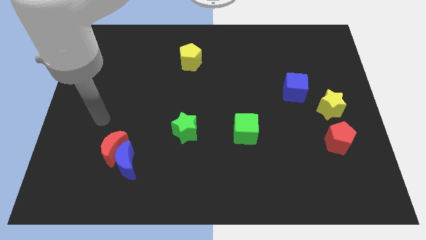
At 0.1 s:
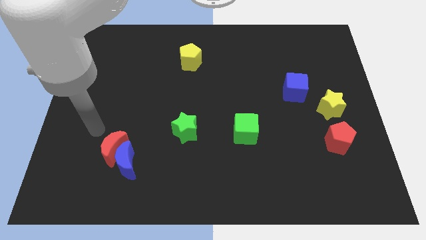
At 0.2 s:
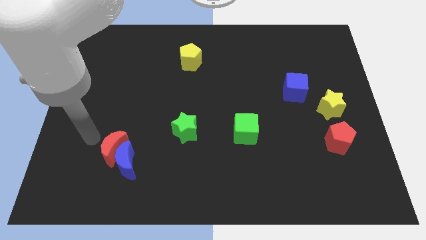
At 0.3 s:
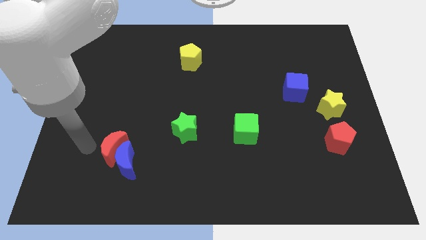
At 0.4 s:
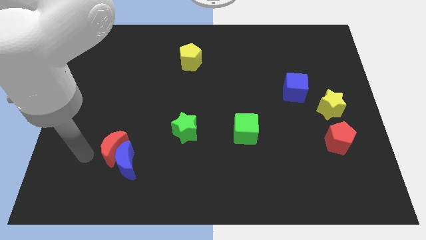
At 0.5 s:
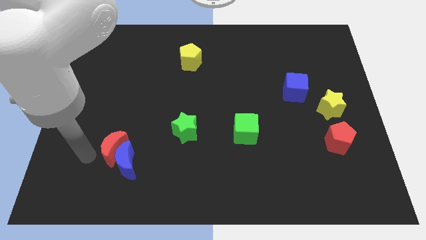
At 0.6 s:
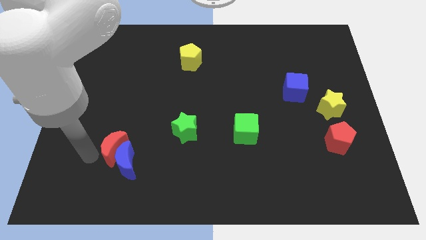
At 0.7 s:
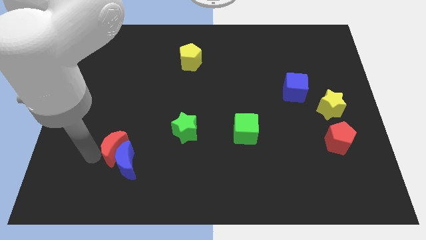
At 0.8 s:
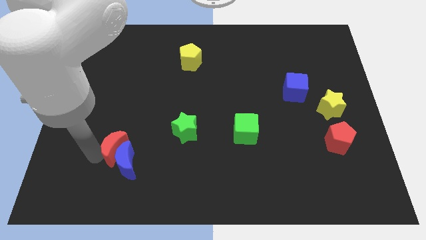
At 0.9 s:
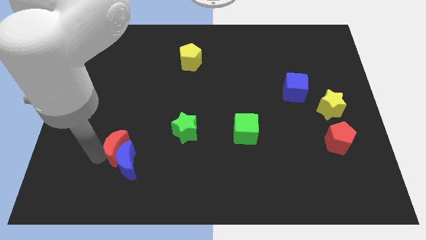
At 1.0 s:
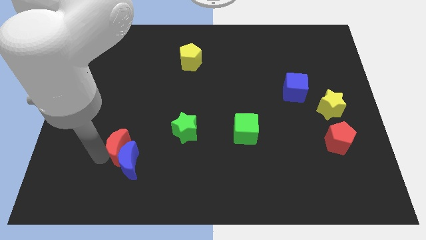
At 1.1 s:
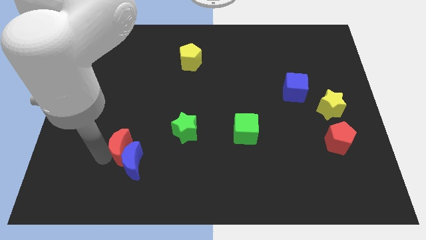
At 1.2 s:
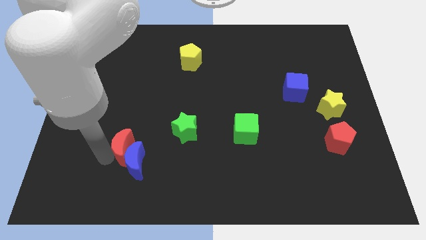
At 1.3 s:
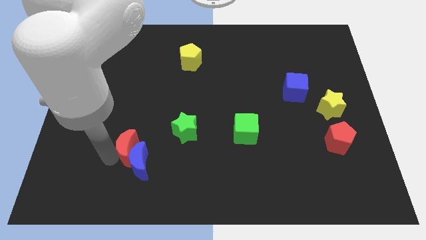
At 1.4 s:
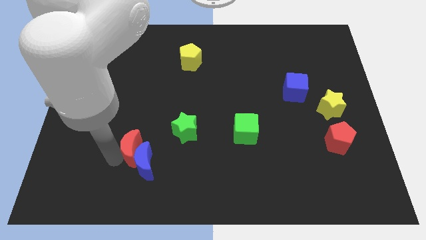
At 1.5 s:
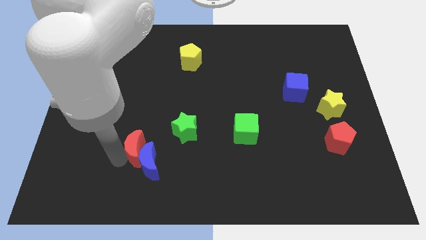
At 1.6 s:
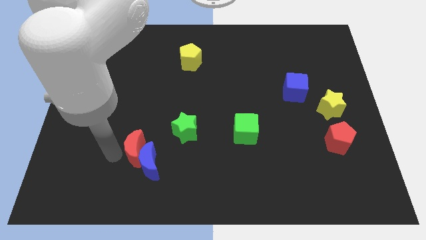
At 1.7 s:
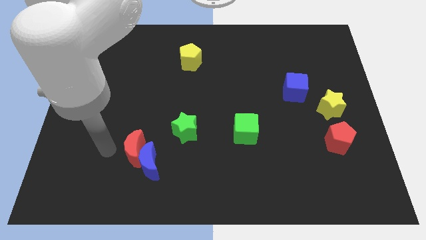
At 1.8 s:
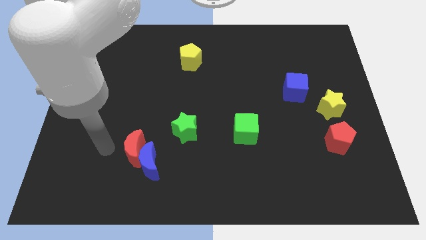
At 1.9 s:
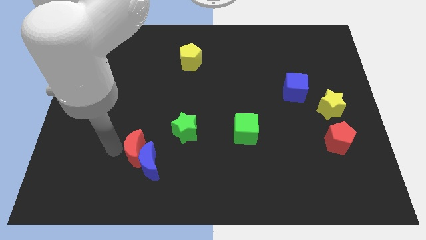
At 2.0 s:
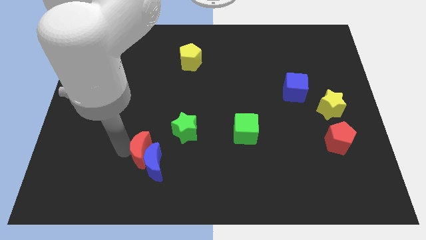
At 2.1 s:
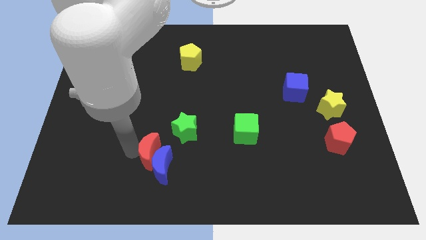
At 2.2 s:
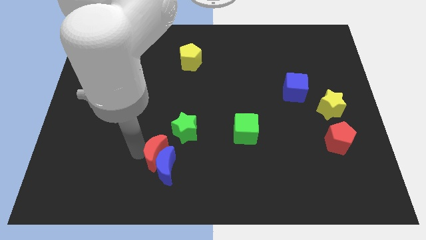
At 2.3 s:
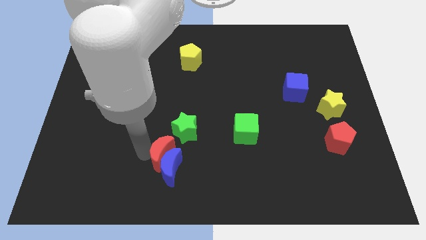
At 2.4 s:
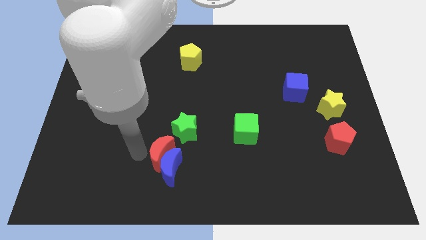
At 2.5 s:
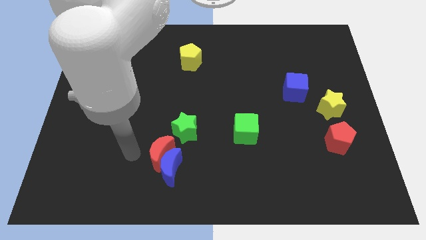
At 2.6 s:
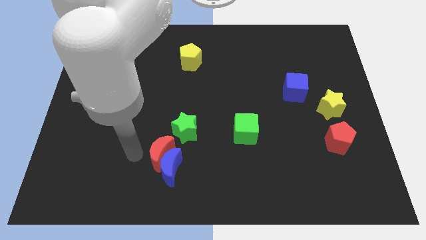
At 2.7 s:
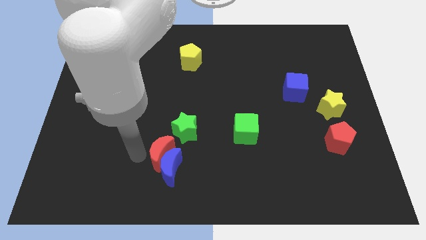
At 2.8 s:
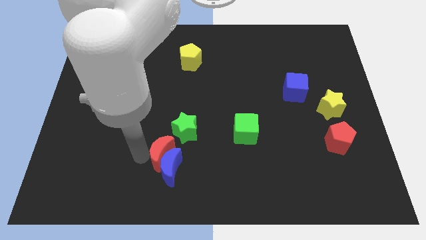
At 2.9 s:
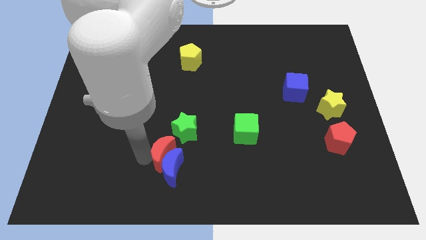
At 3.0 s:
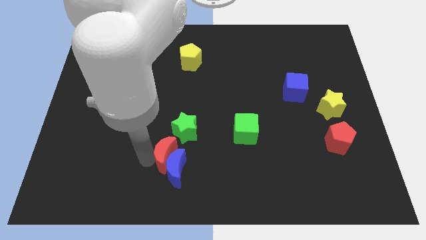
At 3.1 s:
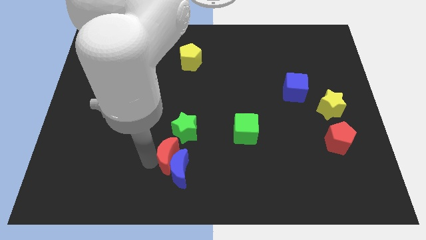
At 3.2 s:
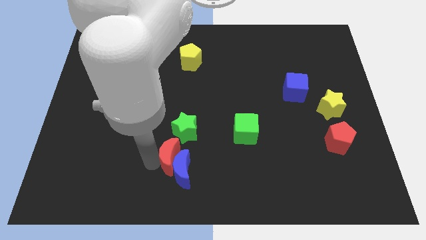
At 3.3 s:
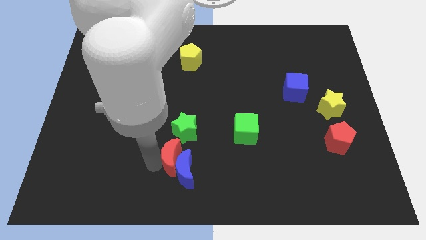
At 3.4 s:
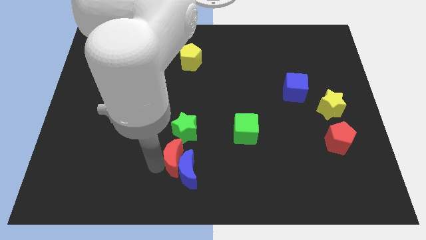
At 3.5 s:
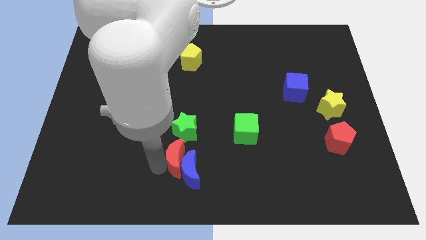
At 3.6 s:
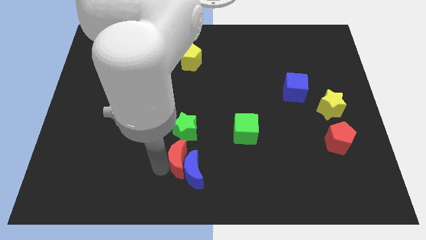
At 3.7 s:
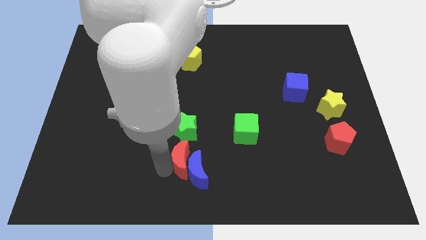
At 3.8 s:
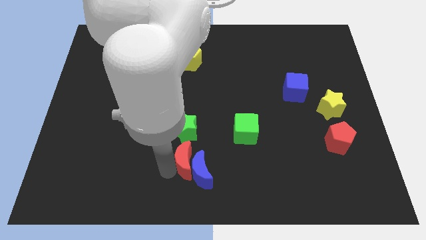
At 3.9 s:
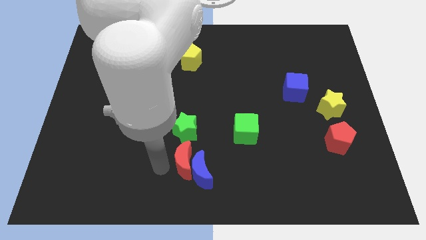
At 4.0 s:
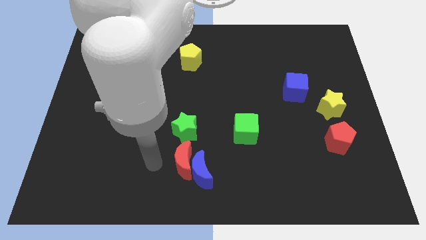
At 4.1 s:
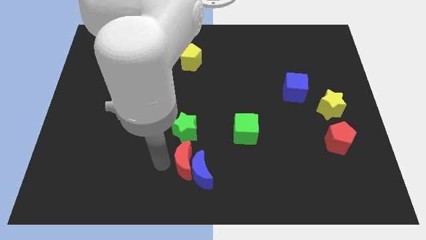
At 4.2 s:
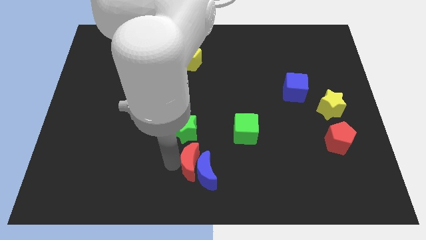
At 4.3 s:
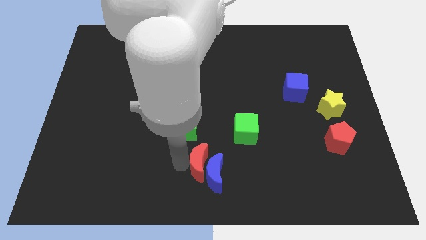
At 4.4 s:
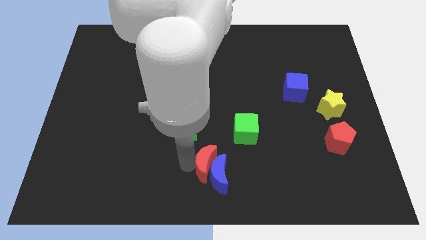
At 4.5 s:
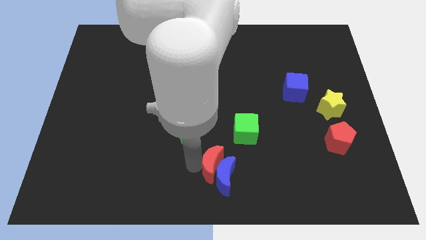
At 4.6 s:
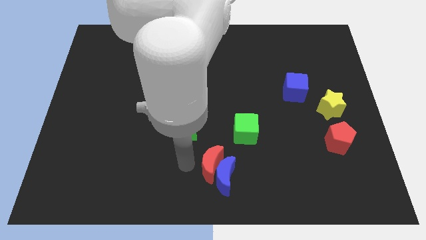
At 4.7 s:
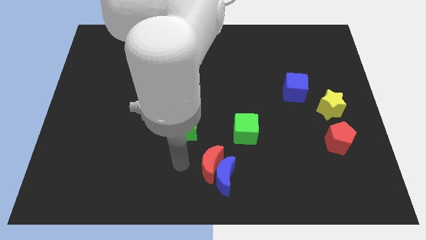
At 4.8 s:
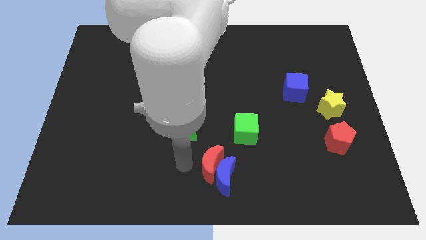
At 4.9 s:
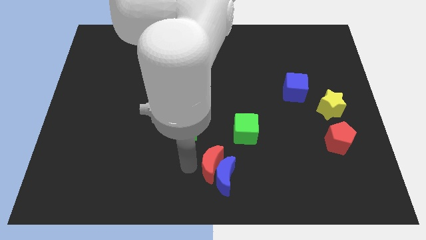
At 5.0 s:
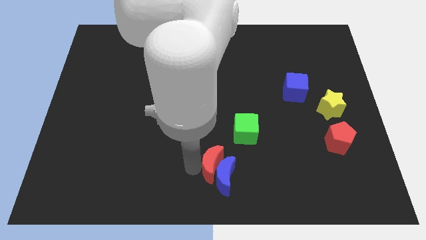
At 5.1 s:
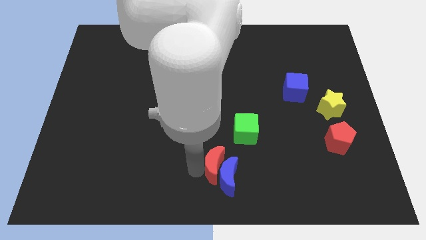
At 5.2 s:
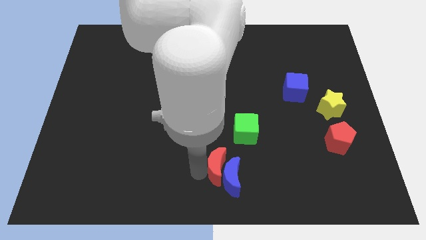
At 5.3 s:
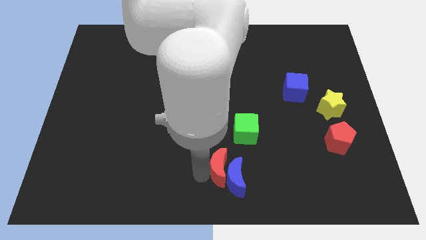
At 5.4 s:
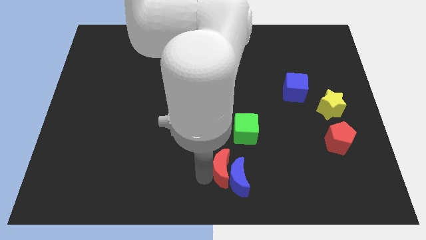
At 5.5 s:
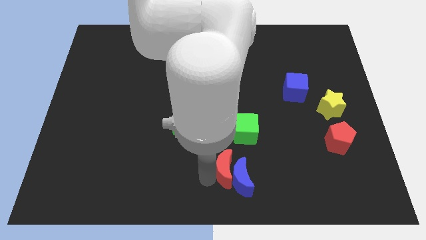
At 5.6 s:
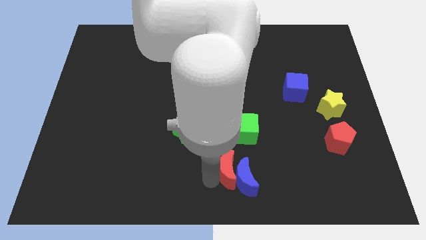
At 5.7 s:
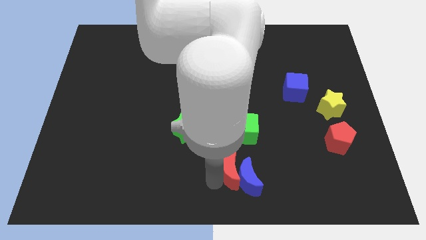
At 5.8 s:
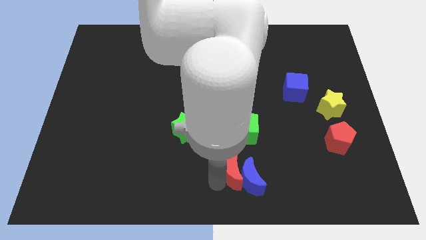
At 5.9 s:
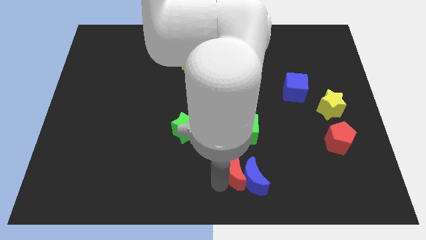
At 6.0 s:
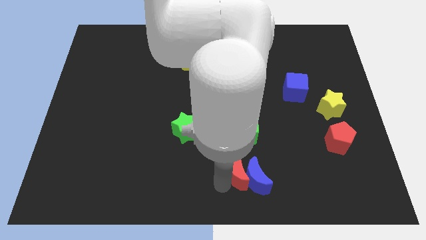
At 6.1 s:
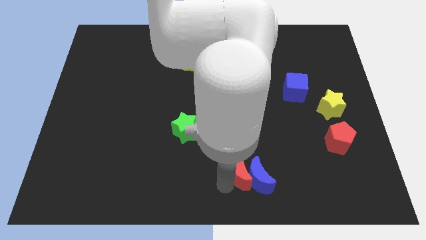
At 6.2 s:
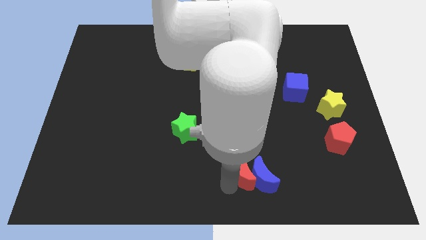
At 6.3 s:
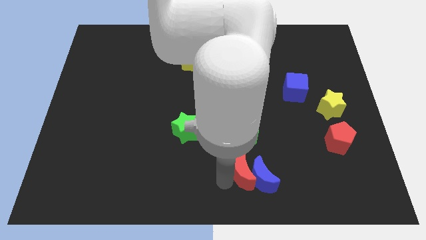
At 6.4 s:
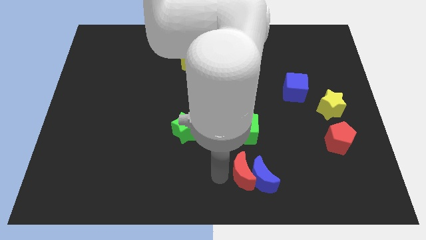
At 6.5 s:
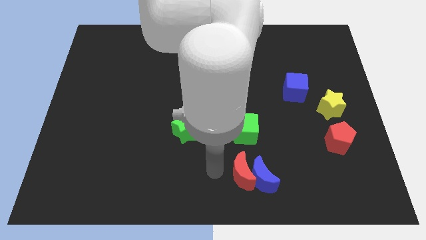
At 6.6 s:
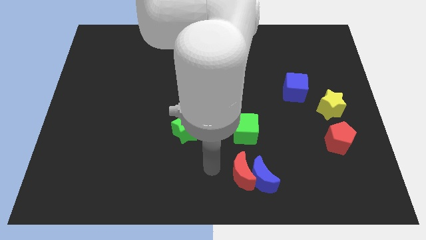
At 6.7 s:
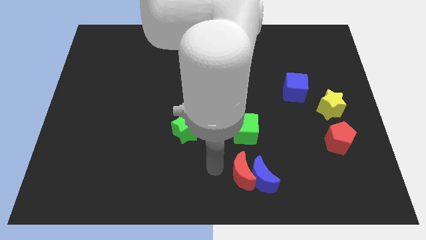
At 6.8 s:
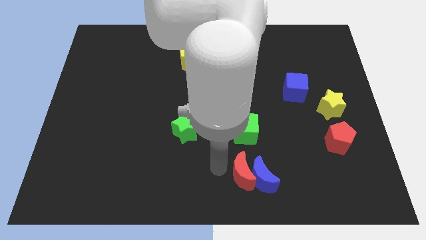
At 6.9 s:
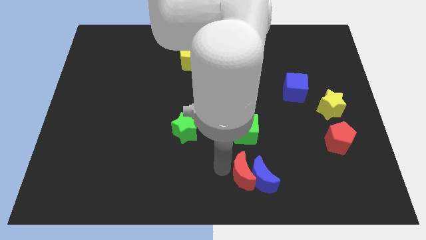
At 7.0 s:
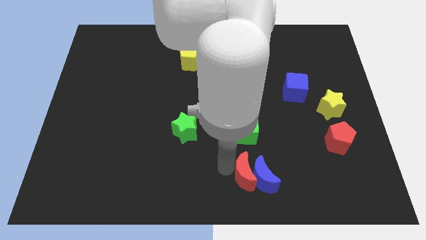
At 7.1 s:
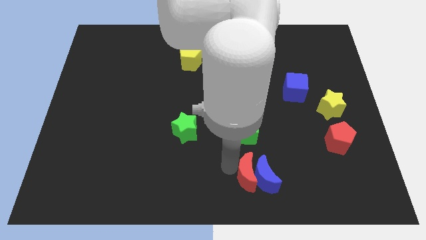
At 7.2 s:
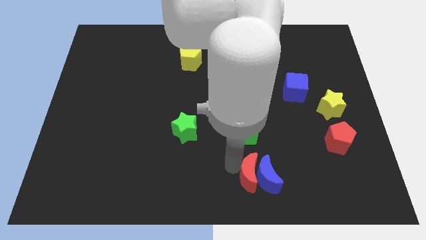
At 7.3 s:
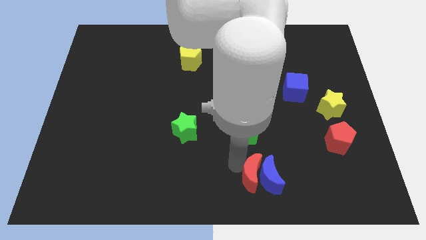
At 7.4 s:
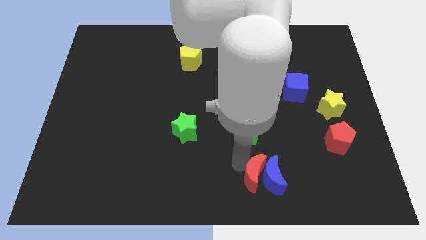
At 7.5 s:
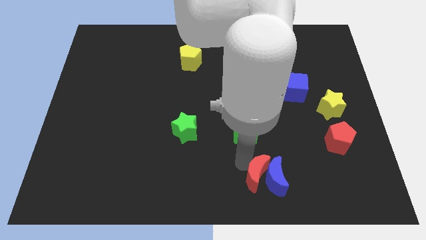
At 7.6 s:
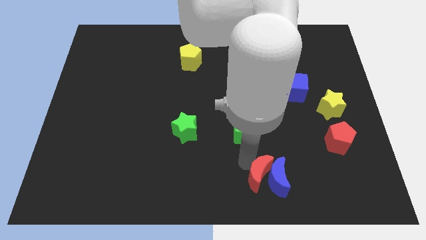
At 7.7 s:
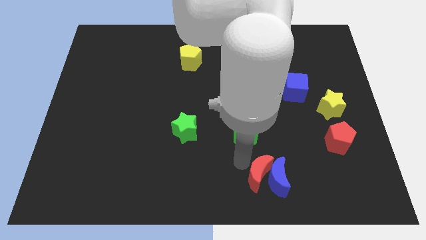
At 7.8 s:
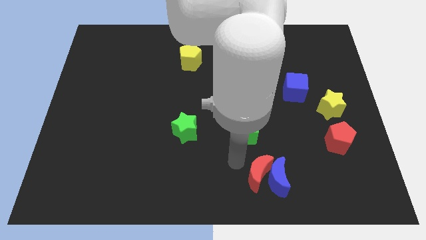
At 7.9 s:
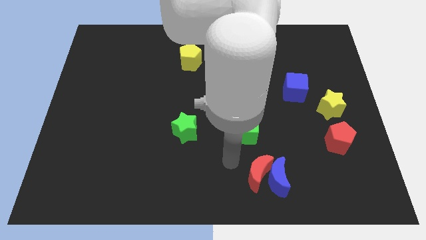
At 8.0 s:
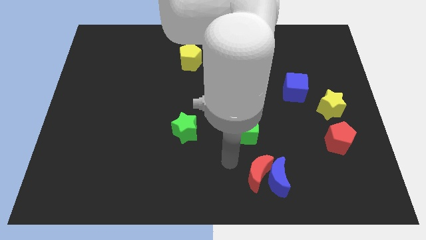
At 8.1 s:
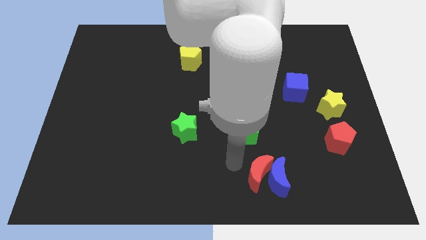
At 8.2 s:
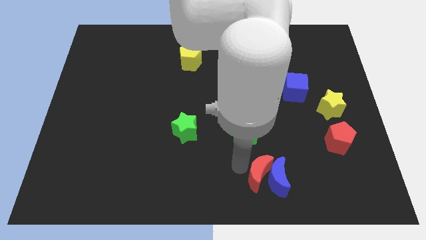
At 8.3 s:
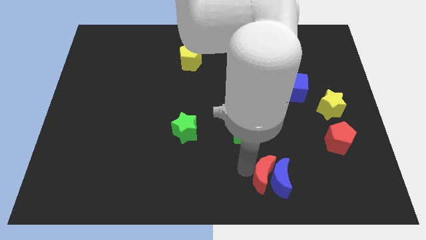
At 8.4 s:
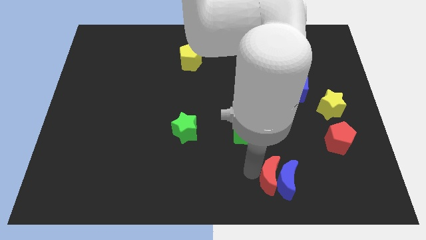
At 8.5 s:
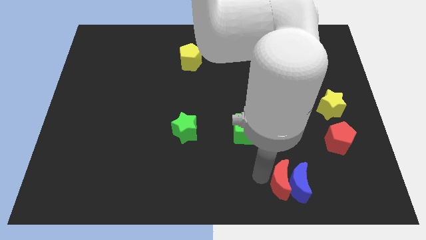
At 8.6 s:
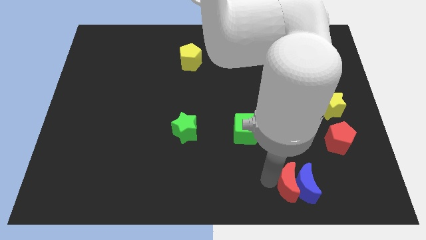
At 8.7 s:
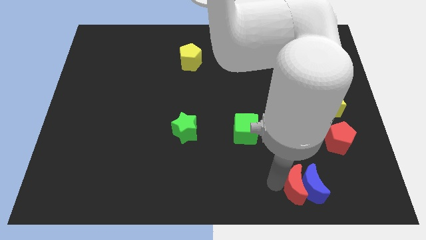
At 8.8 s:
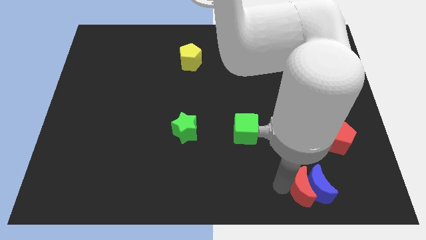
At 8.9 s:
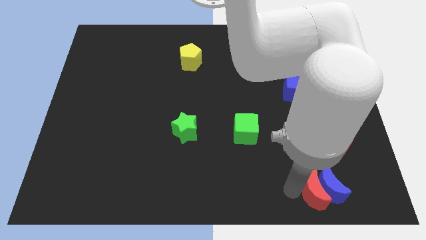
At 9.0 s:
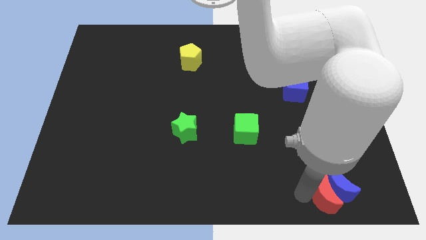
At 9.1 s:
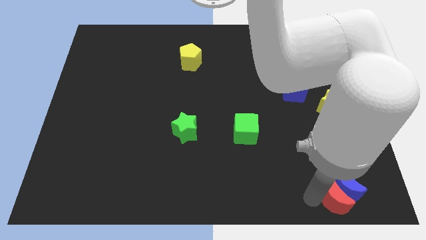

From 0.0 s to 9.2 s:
slide the red moon to the bottom of the red pentagon
